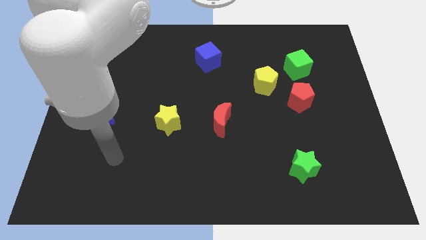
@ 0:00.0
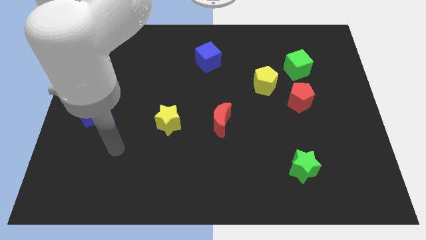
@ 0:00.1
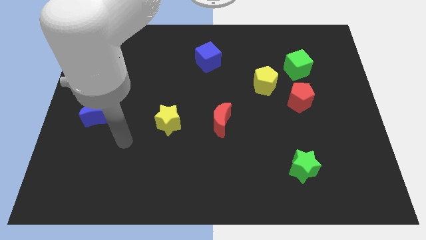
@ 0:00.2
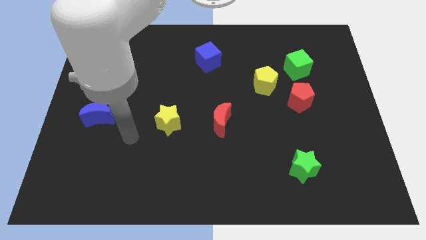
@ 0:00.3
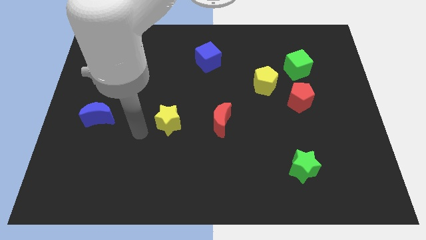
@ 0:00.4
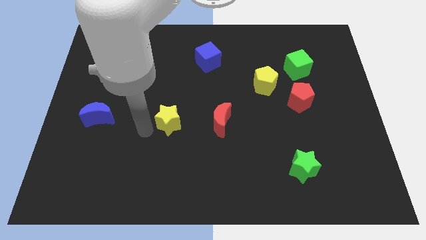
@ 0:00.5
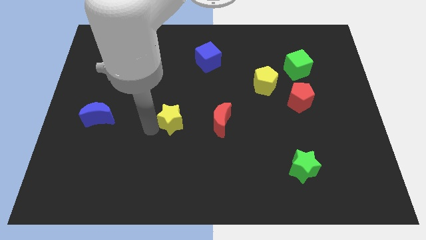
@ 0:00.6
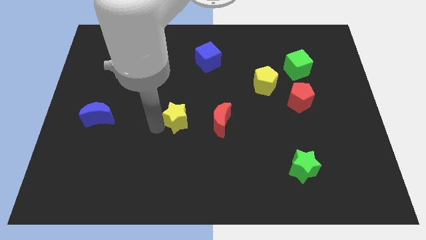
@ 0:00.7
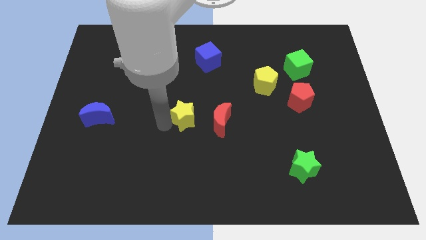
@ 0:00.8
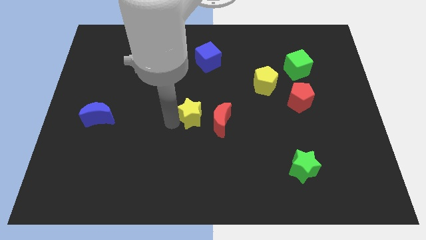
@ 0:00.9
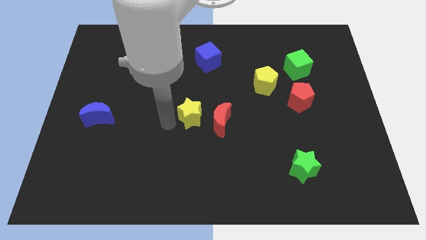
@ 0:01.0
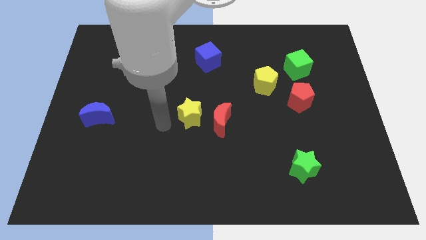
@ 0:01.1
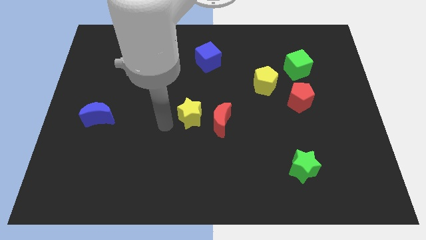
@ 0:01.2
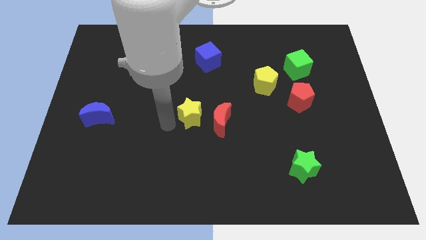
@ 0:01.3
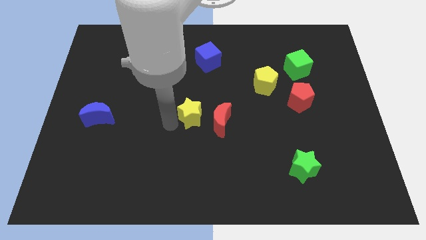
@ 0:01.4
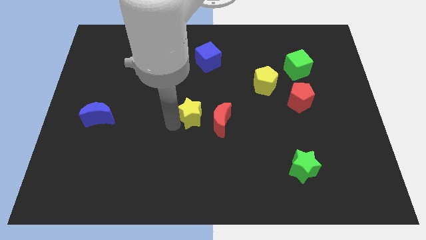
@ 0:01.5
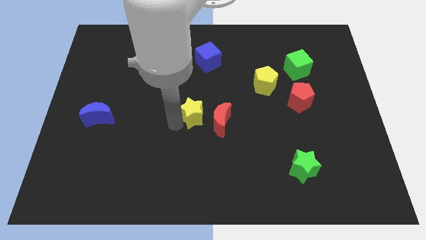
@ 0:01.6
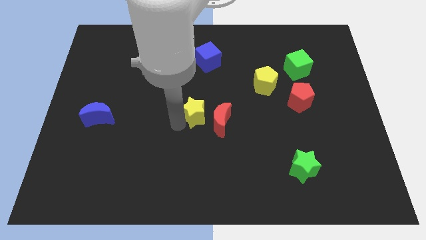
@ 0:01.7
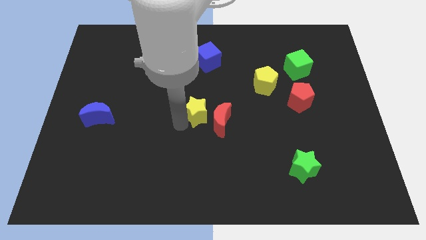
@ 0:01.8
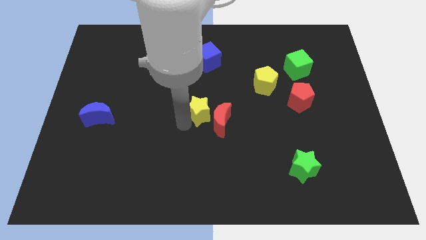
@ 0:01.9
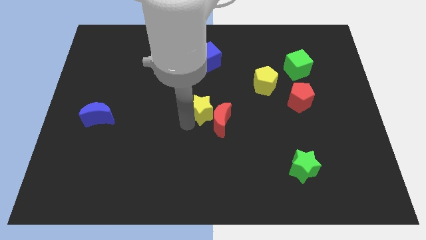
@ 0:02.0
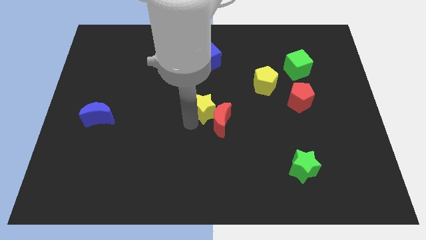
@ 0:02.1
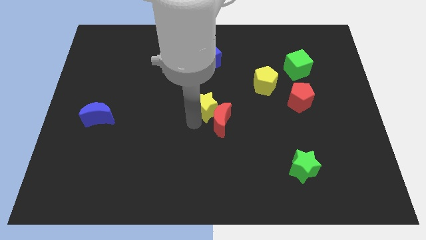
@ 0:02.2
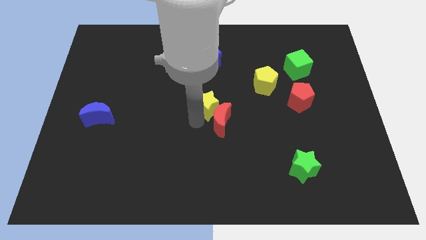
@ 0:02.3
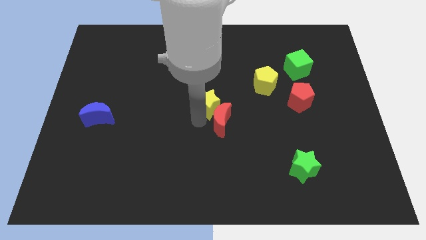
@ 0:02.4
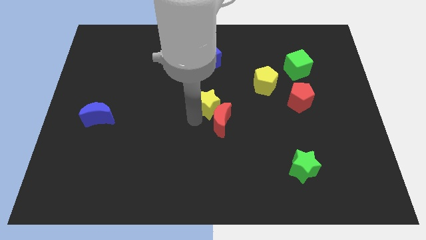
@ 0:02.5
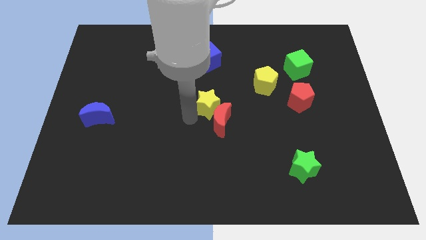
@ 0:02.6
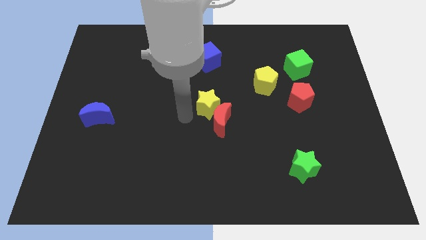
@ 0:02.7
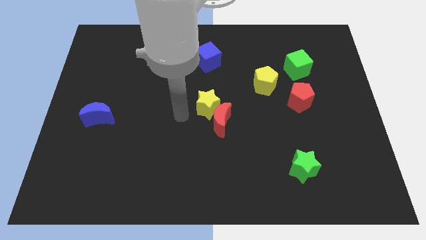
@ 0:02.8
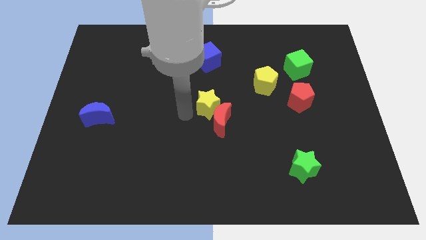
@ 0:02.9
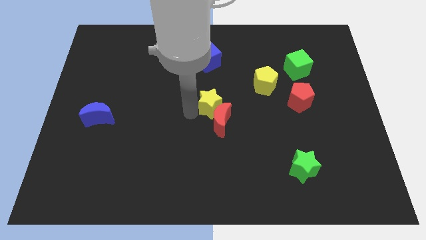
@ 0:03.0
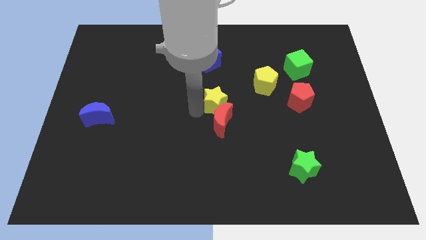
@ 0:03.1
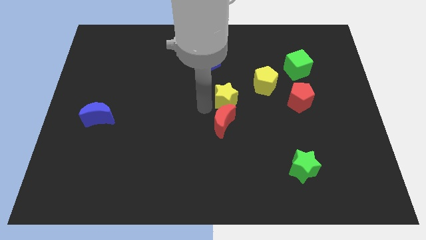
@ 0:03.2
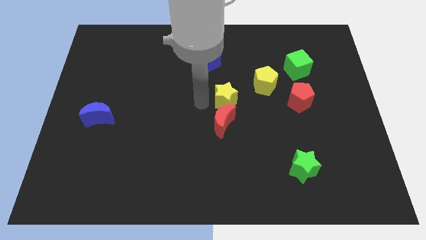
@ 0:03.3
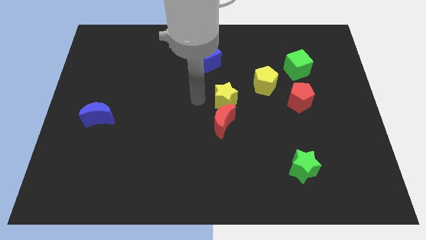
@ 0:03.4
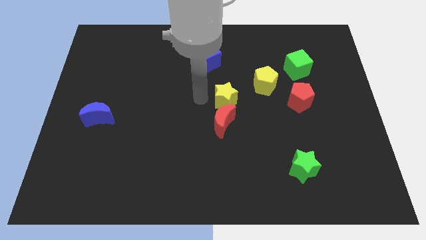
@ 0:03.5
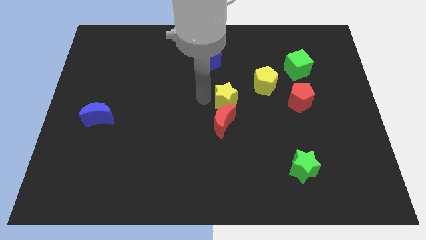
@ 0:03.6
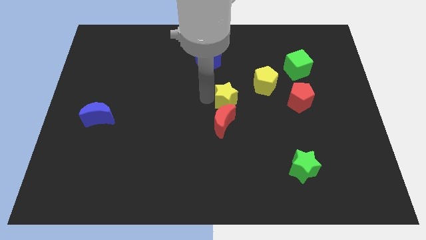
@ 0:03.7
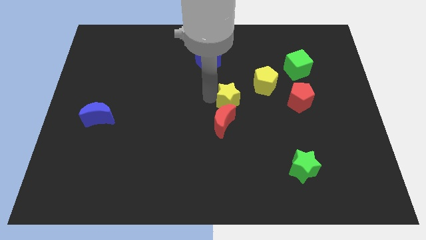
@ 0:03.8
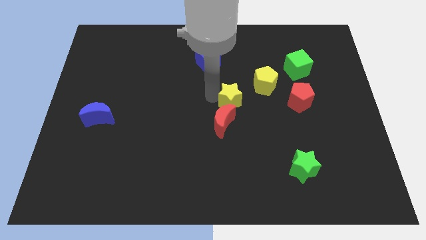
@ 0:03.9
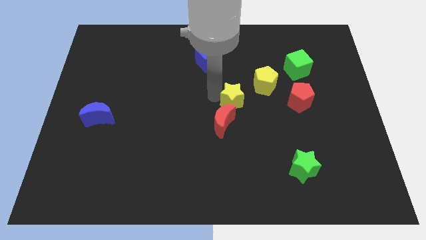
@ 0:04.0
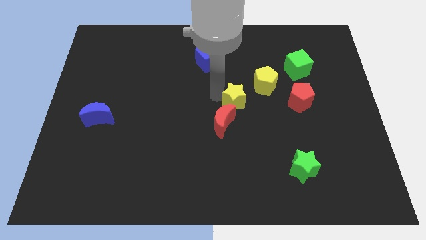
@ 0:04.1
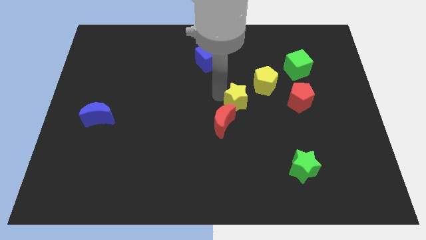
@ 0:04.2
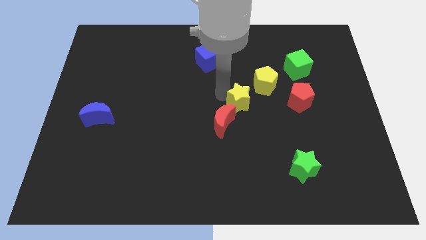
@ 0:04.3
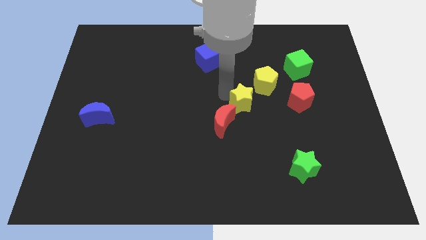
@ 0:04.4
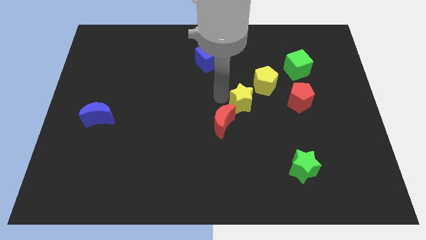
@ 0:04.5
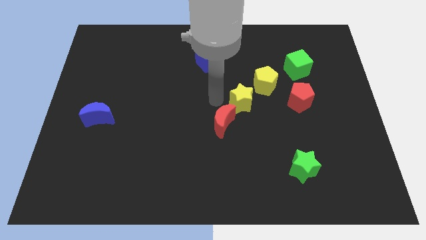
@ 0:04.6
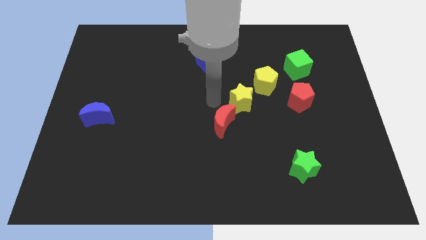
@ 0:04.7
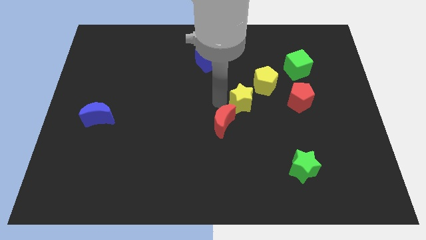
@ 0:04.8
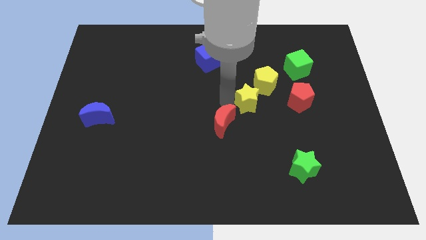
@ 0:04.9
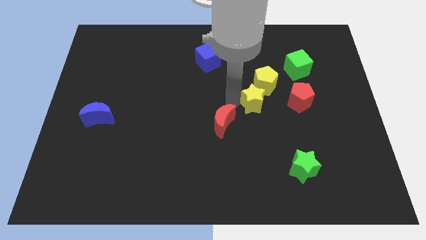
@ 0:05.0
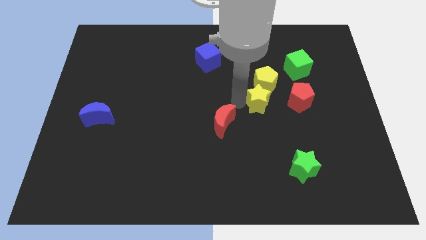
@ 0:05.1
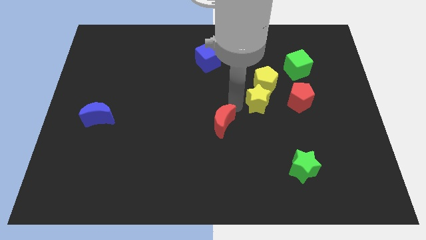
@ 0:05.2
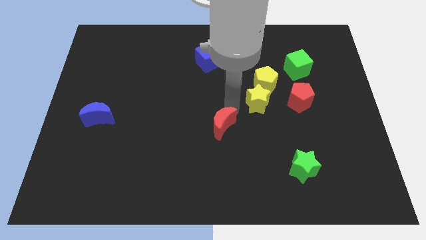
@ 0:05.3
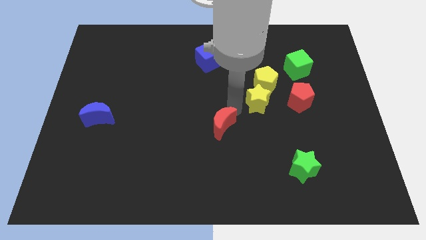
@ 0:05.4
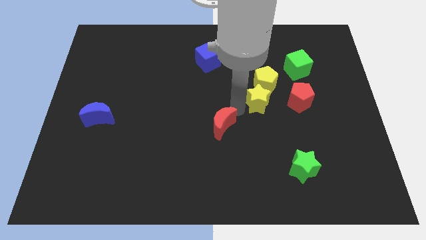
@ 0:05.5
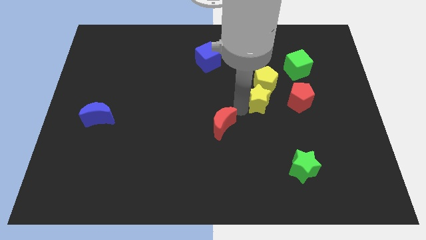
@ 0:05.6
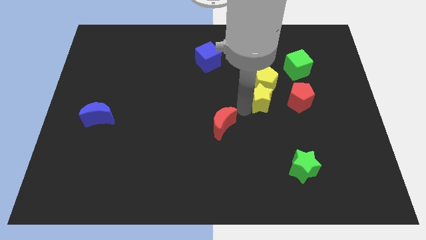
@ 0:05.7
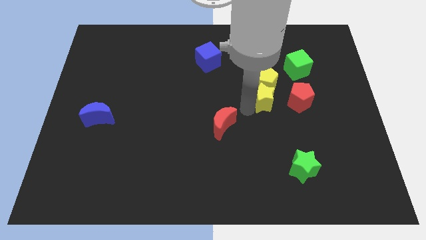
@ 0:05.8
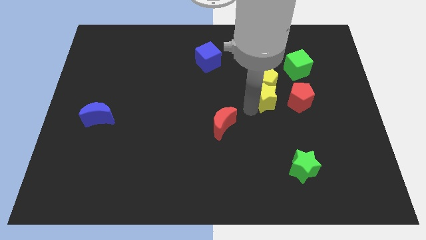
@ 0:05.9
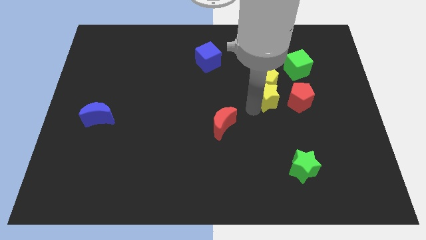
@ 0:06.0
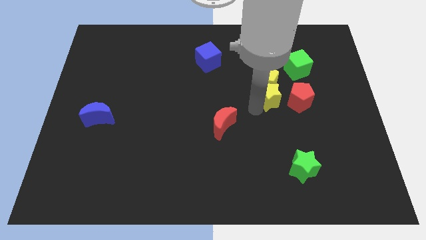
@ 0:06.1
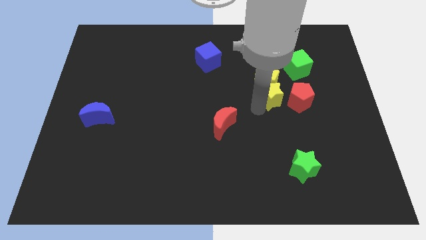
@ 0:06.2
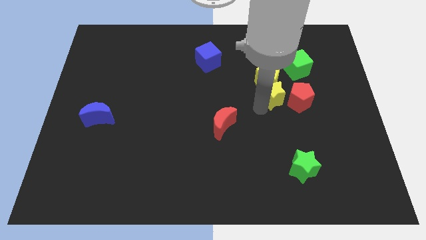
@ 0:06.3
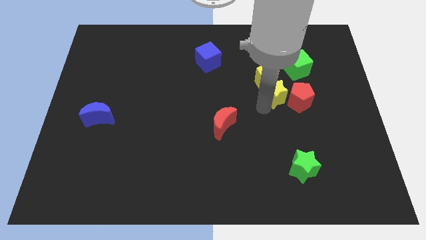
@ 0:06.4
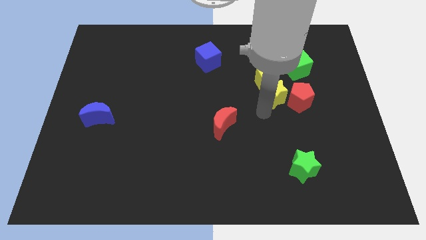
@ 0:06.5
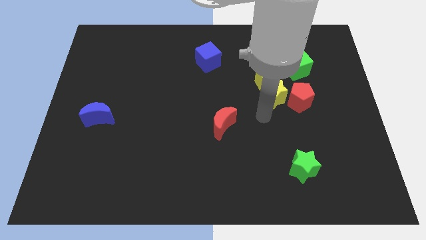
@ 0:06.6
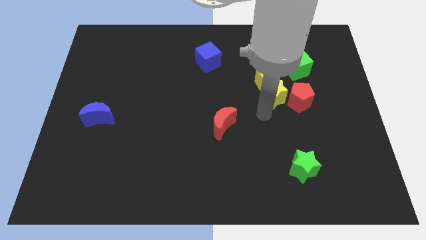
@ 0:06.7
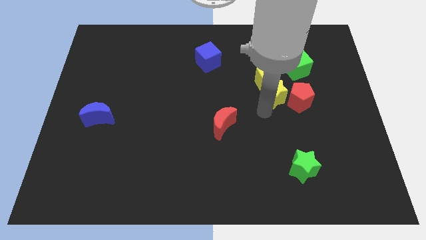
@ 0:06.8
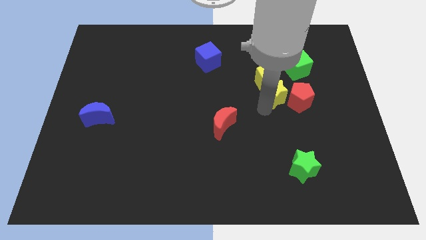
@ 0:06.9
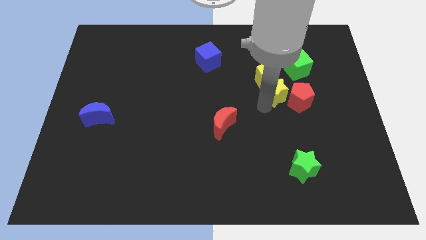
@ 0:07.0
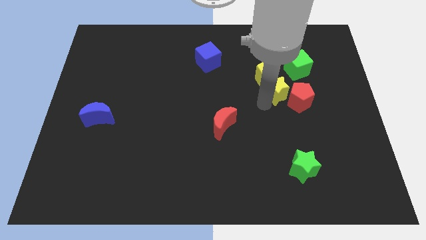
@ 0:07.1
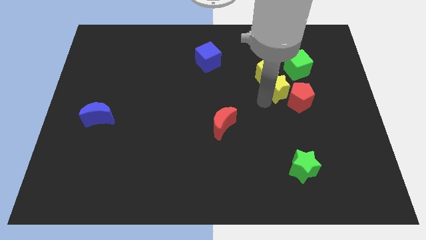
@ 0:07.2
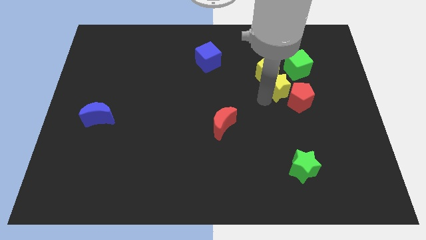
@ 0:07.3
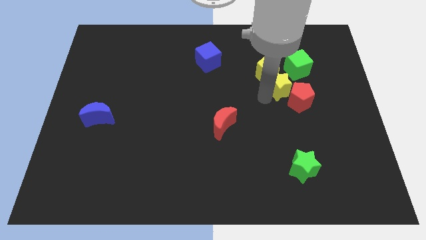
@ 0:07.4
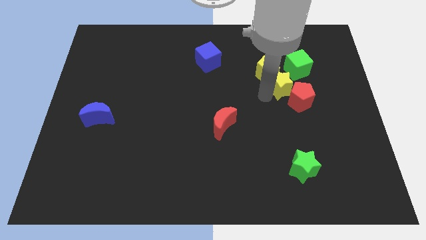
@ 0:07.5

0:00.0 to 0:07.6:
slide the yellow star to the top of the red pentagon
